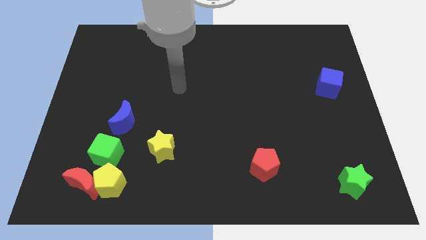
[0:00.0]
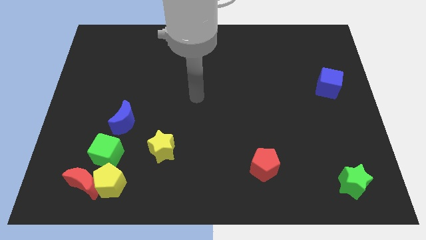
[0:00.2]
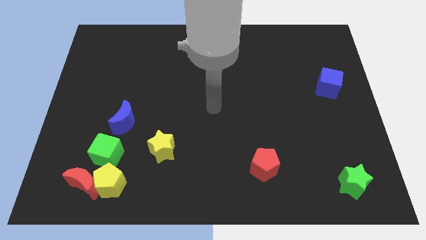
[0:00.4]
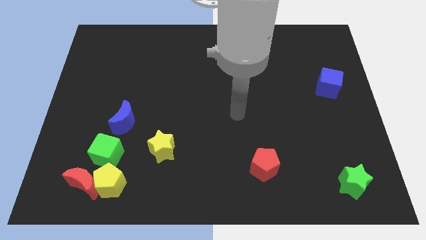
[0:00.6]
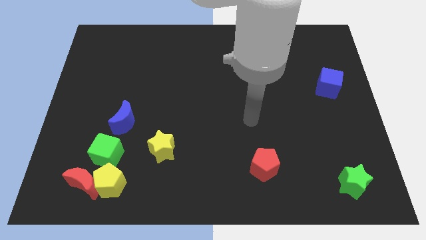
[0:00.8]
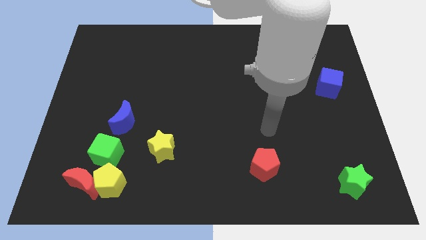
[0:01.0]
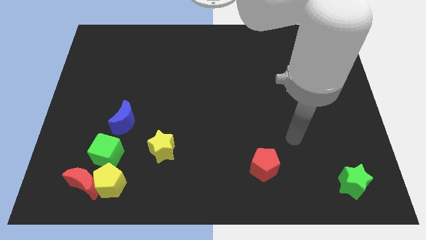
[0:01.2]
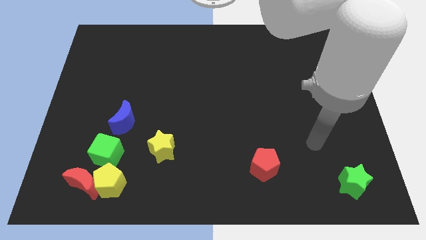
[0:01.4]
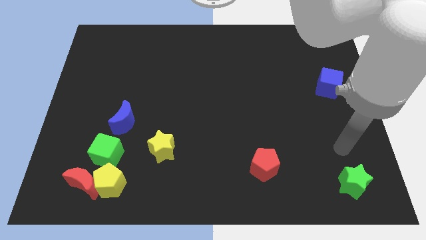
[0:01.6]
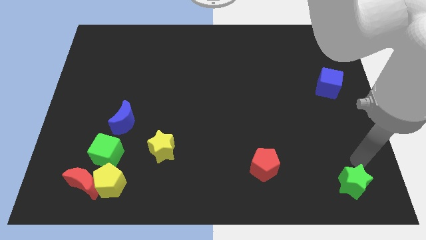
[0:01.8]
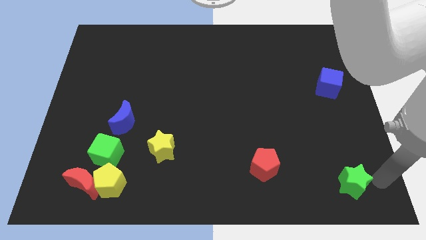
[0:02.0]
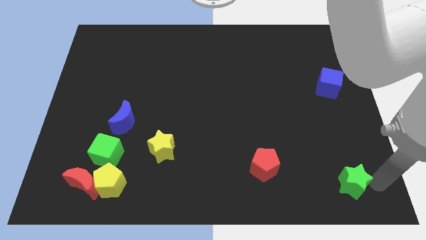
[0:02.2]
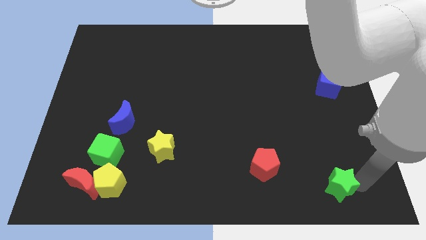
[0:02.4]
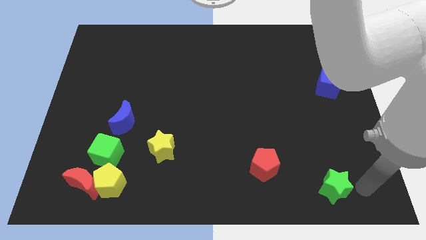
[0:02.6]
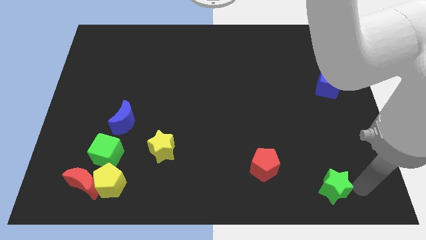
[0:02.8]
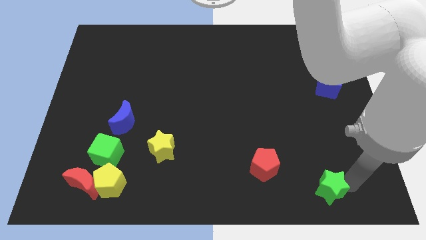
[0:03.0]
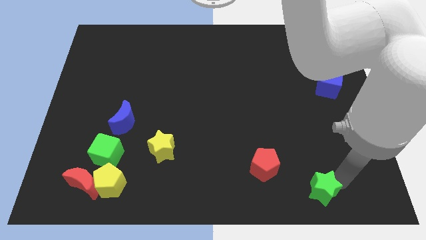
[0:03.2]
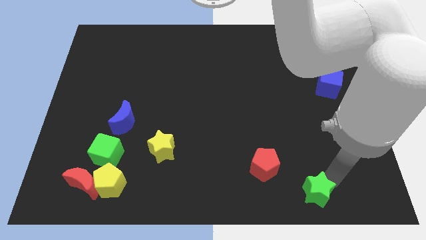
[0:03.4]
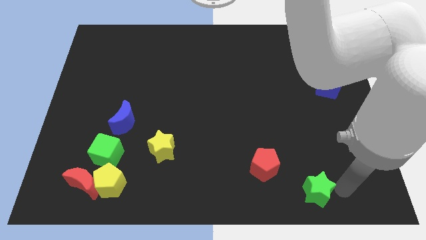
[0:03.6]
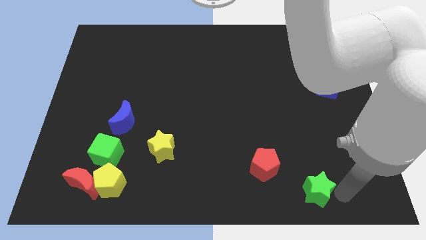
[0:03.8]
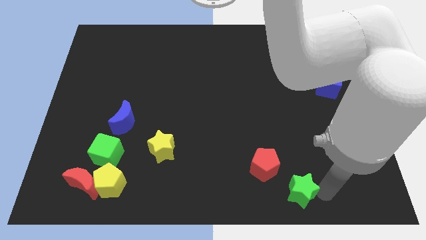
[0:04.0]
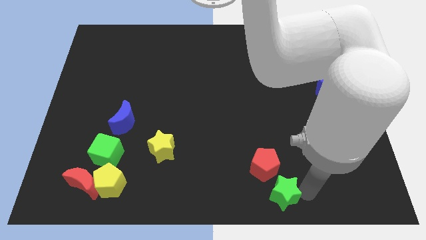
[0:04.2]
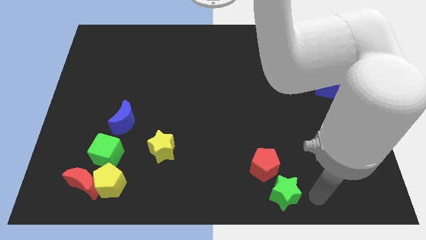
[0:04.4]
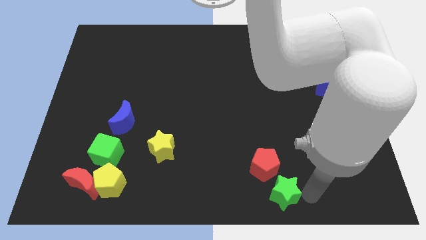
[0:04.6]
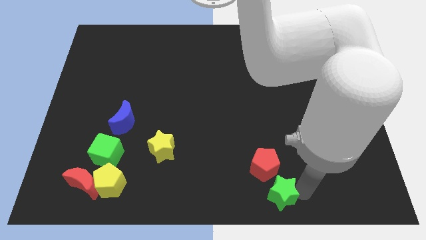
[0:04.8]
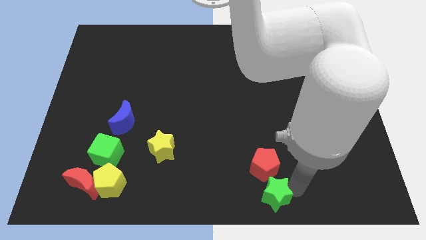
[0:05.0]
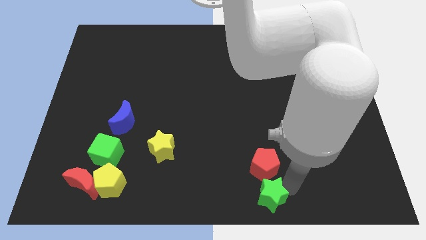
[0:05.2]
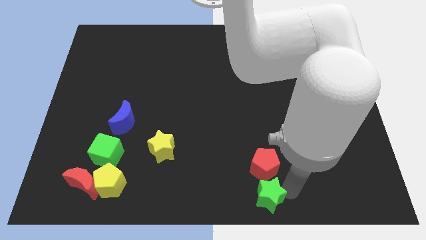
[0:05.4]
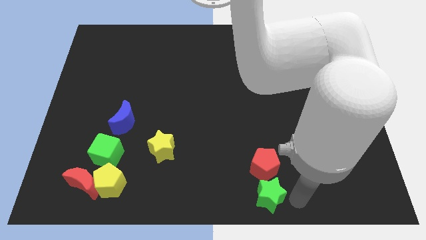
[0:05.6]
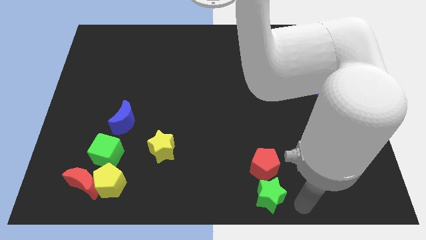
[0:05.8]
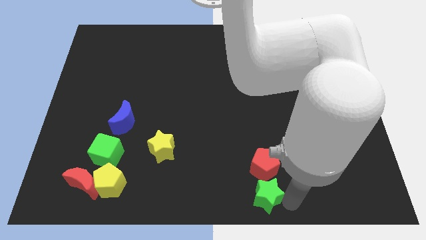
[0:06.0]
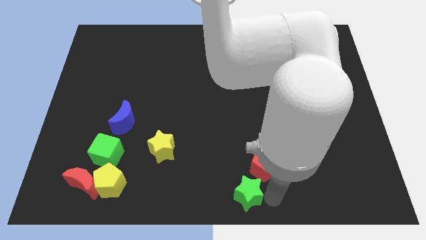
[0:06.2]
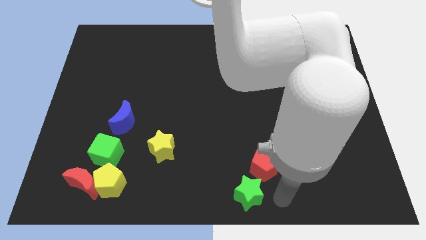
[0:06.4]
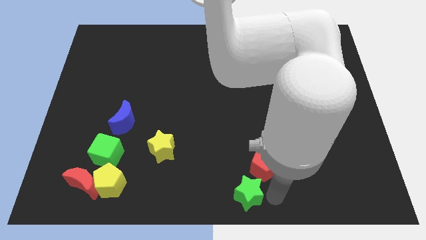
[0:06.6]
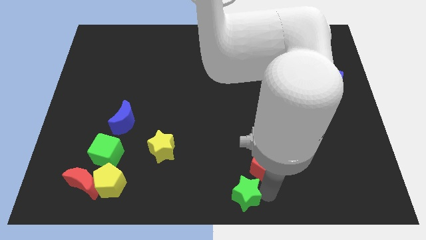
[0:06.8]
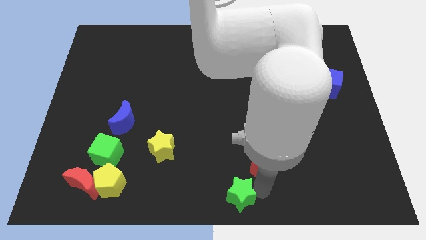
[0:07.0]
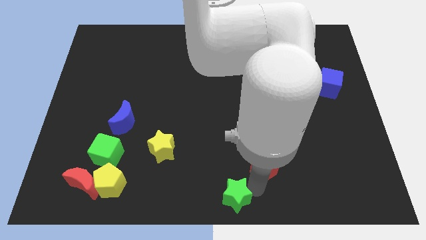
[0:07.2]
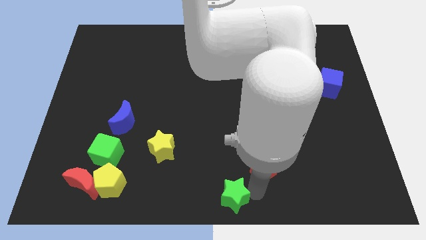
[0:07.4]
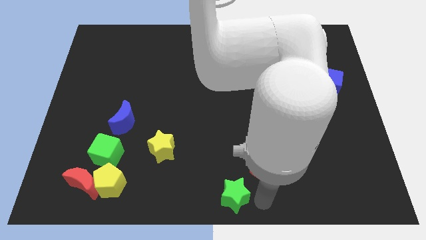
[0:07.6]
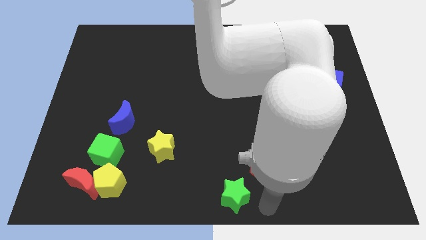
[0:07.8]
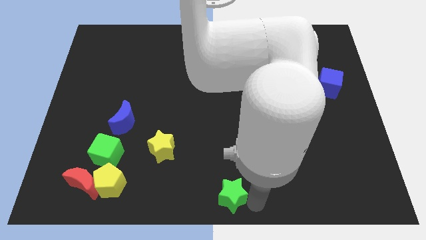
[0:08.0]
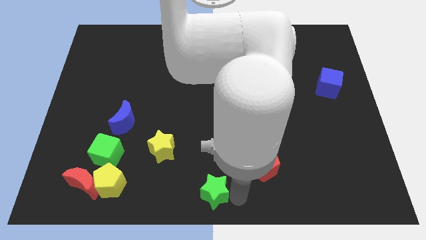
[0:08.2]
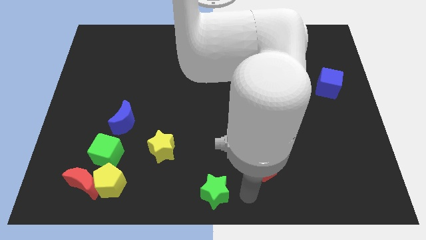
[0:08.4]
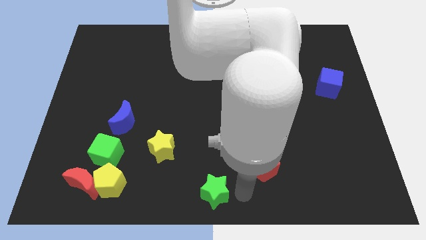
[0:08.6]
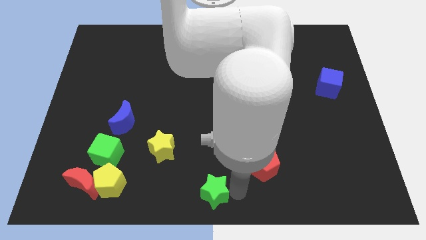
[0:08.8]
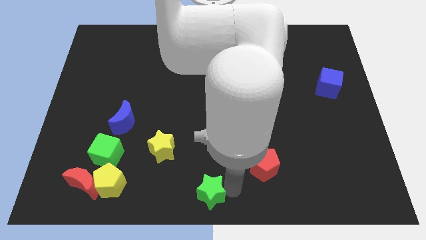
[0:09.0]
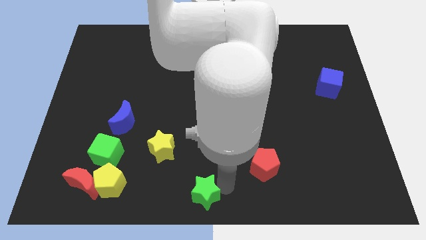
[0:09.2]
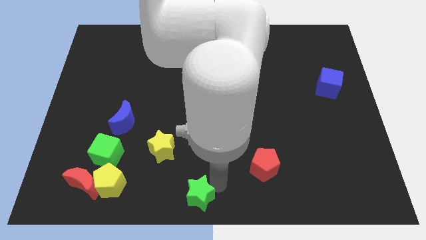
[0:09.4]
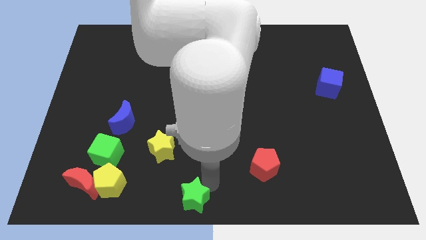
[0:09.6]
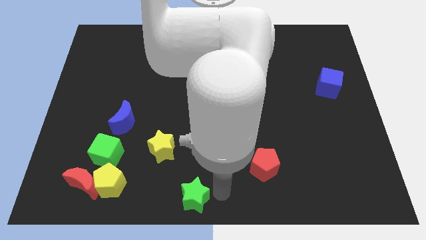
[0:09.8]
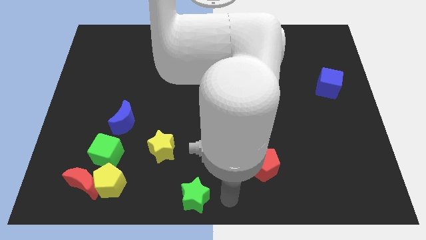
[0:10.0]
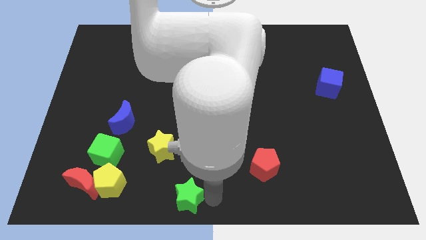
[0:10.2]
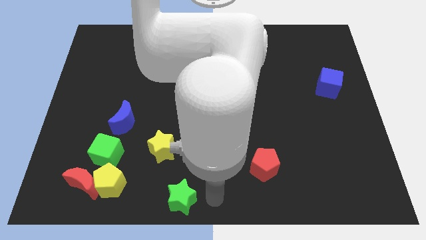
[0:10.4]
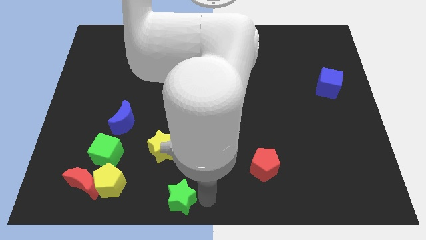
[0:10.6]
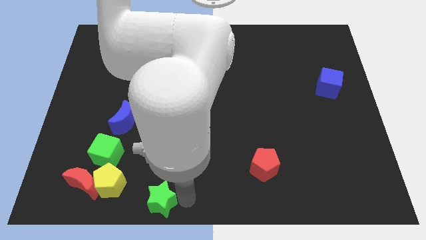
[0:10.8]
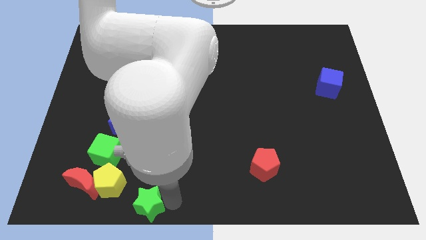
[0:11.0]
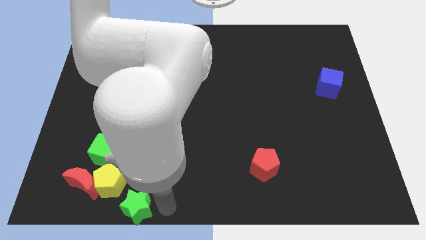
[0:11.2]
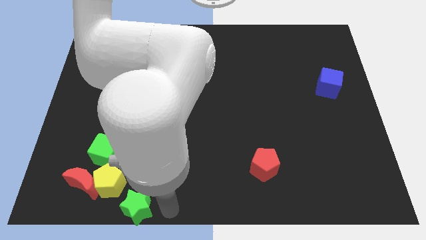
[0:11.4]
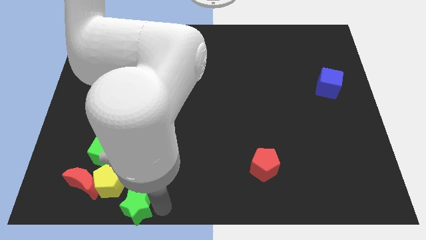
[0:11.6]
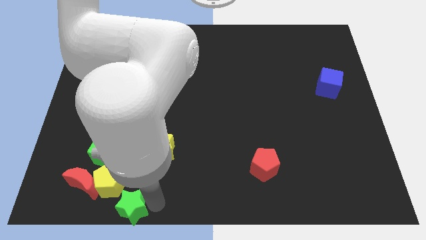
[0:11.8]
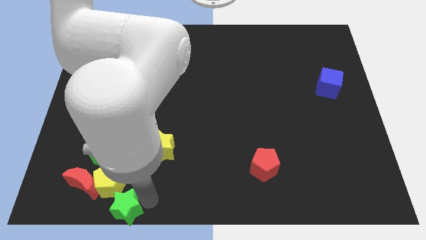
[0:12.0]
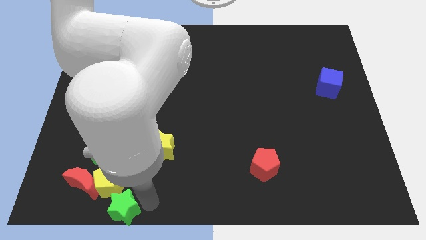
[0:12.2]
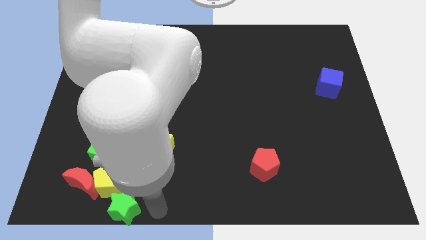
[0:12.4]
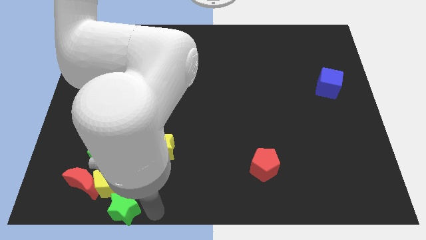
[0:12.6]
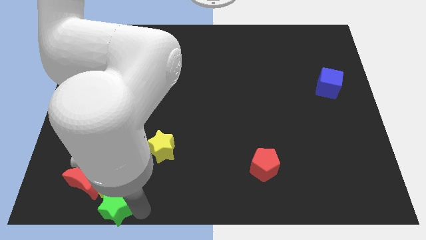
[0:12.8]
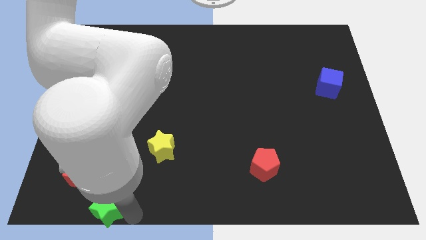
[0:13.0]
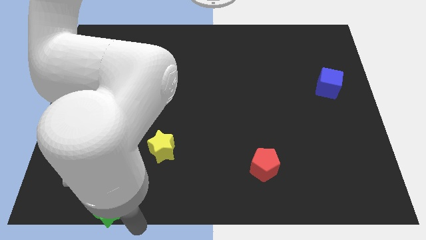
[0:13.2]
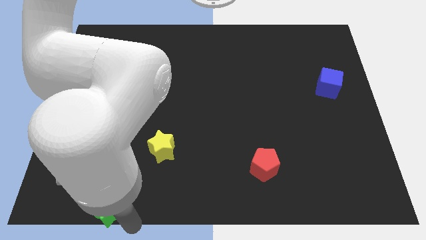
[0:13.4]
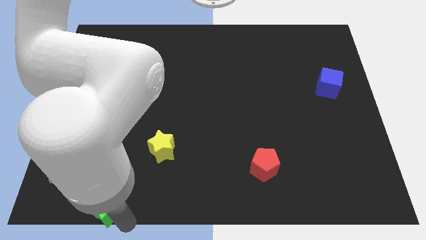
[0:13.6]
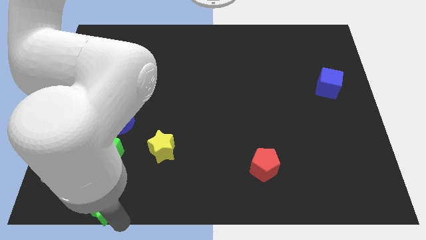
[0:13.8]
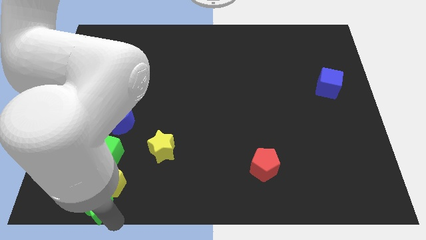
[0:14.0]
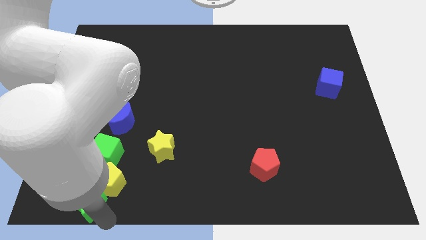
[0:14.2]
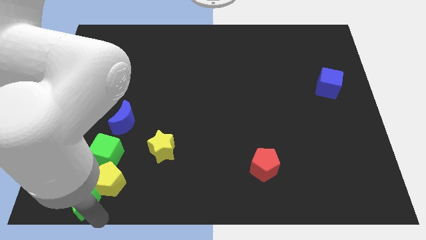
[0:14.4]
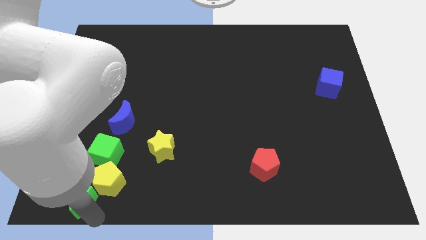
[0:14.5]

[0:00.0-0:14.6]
put the green star to the red moon
